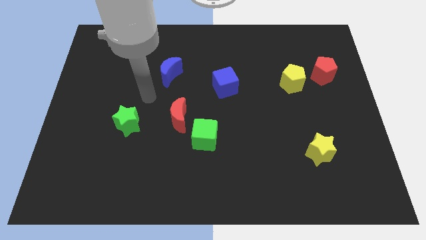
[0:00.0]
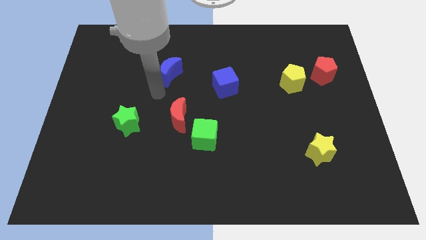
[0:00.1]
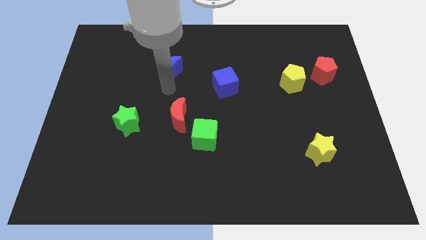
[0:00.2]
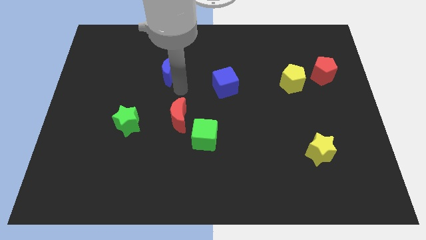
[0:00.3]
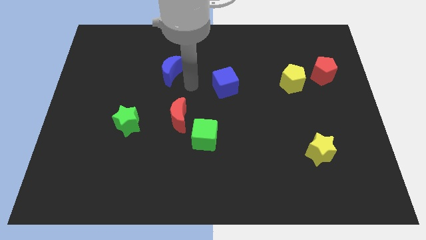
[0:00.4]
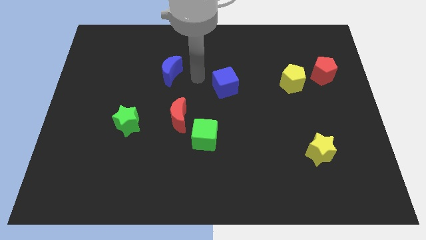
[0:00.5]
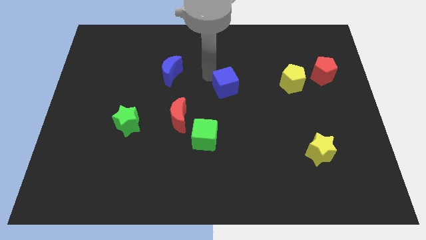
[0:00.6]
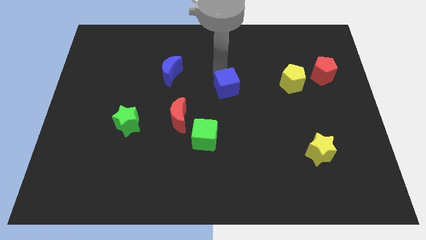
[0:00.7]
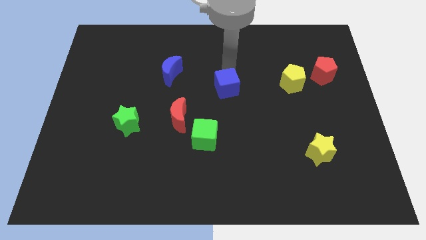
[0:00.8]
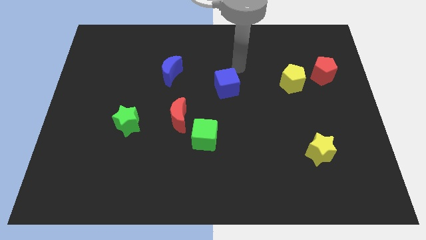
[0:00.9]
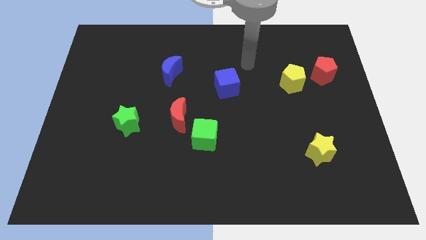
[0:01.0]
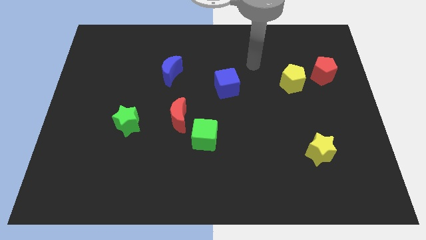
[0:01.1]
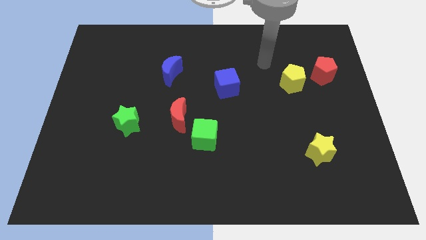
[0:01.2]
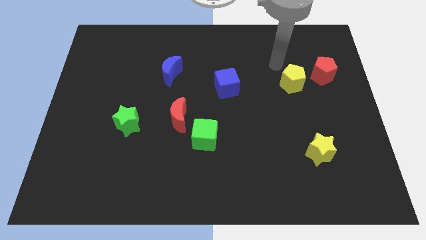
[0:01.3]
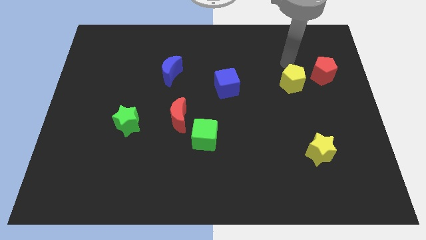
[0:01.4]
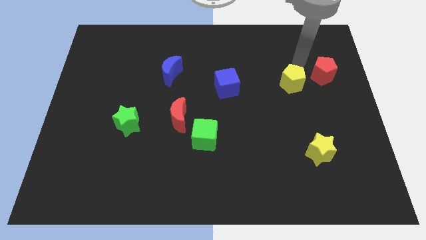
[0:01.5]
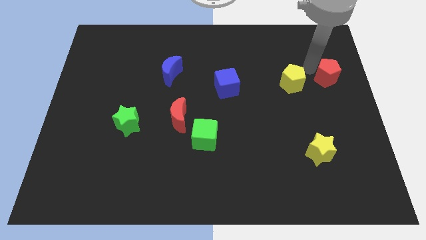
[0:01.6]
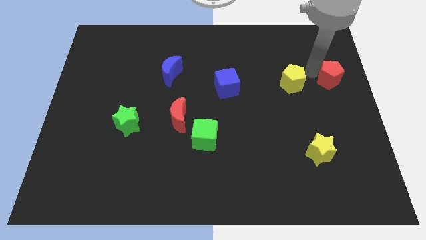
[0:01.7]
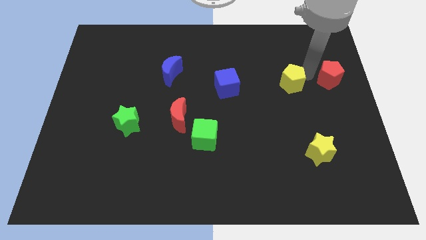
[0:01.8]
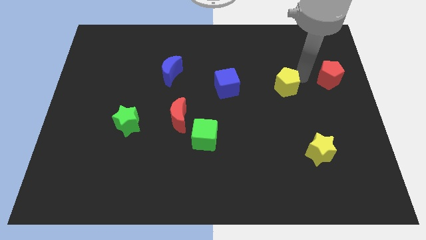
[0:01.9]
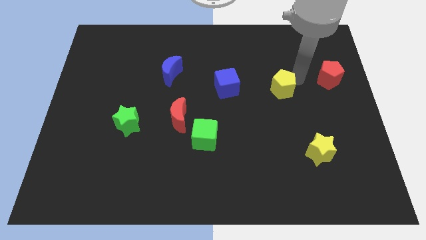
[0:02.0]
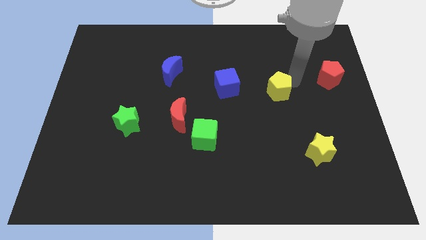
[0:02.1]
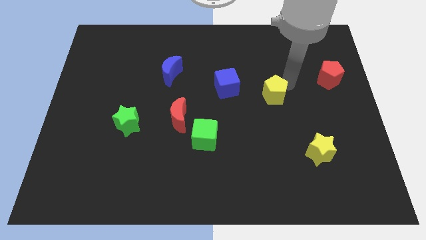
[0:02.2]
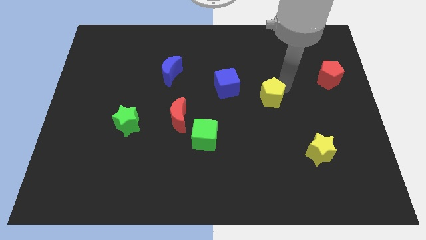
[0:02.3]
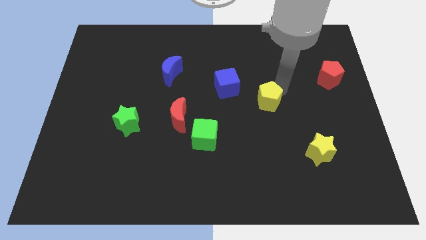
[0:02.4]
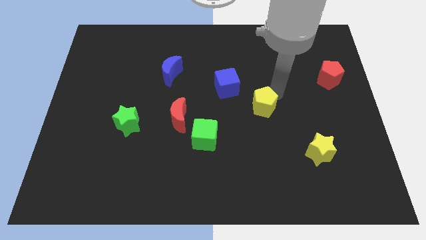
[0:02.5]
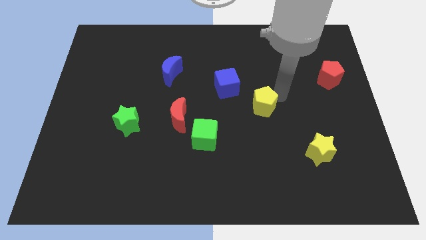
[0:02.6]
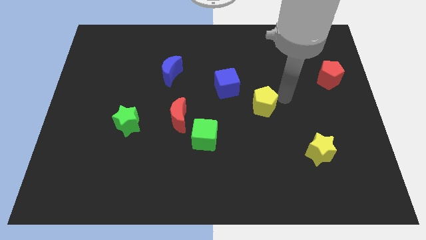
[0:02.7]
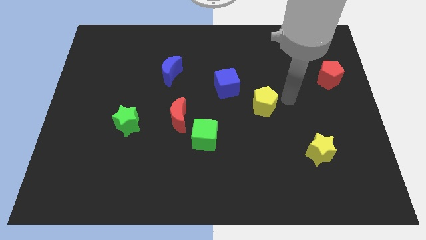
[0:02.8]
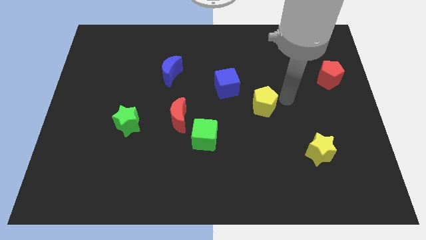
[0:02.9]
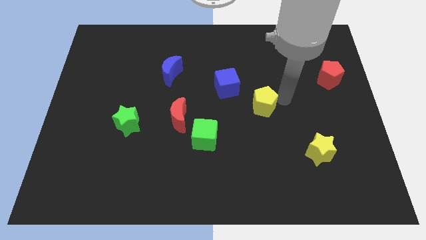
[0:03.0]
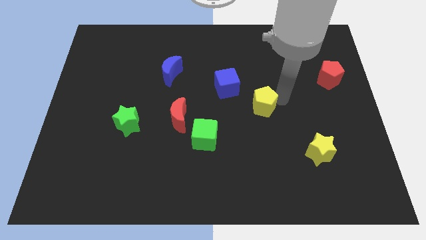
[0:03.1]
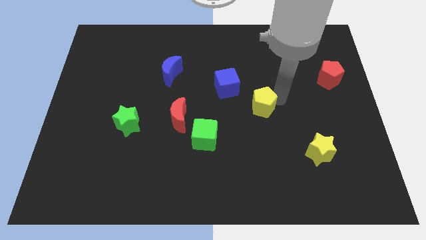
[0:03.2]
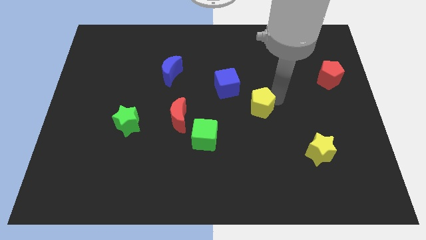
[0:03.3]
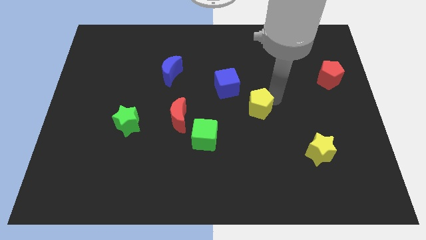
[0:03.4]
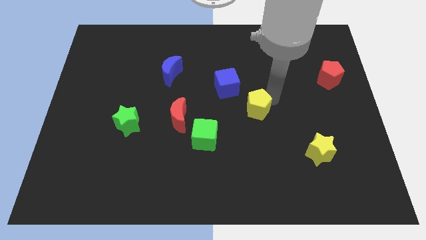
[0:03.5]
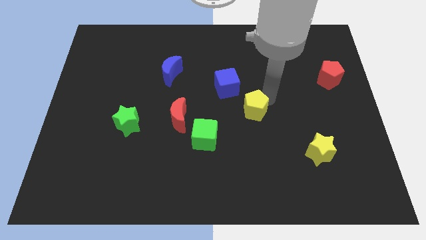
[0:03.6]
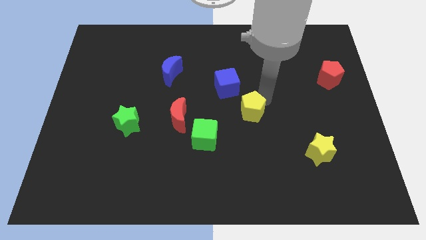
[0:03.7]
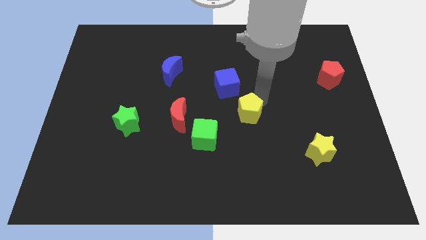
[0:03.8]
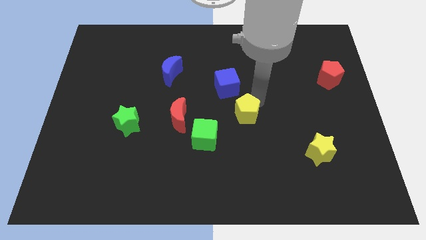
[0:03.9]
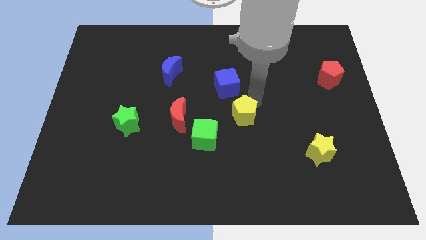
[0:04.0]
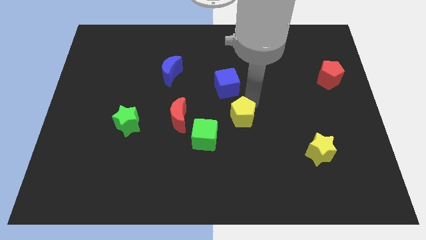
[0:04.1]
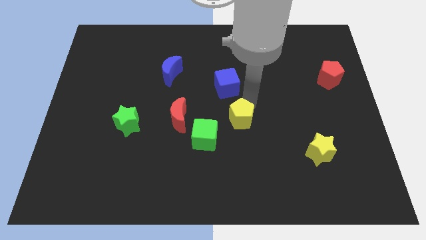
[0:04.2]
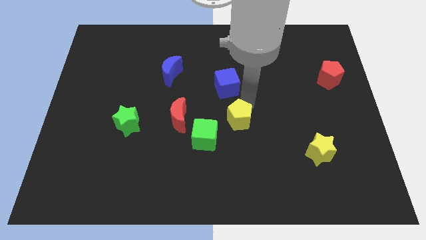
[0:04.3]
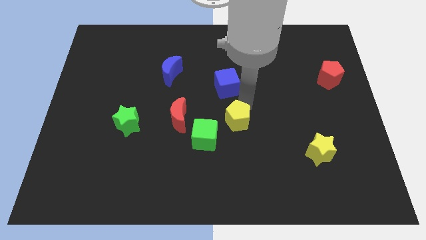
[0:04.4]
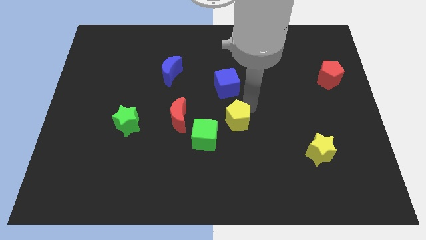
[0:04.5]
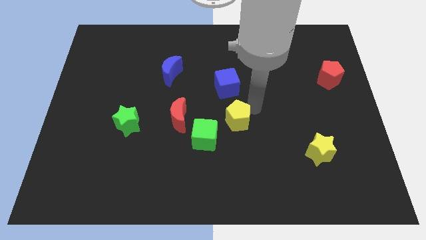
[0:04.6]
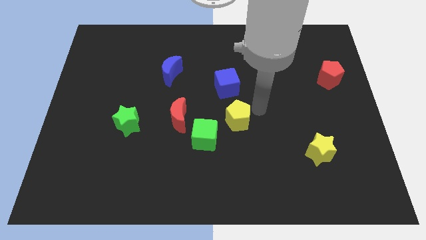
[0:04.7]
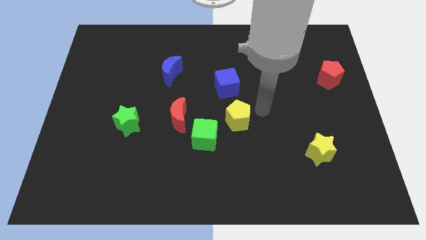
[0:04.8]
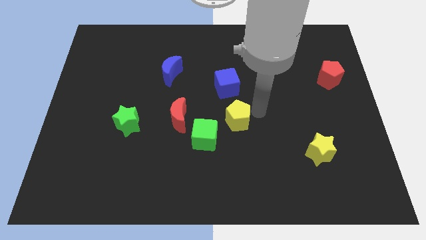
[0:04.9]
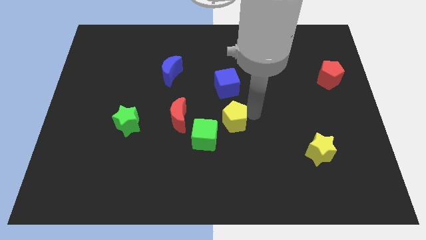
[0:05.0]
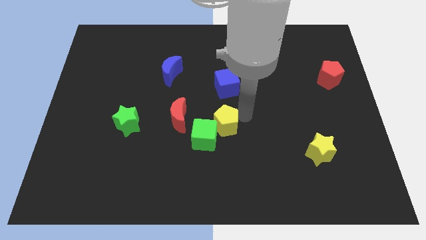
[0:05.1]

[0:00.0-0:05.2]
slide the yellow pentagon next to the green cube

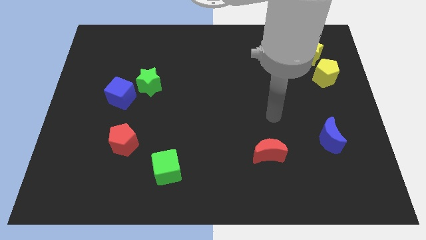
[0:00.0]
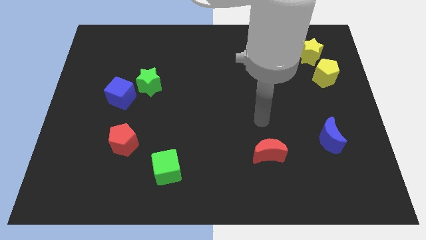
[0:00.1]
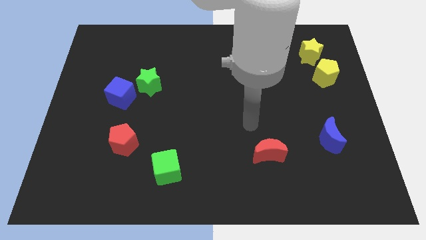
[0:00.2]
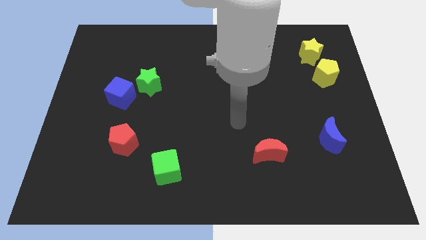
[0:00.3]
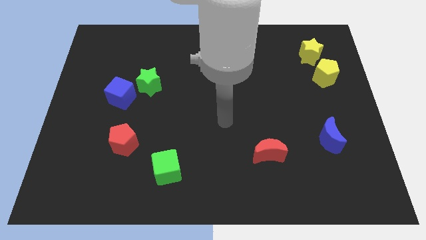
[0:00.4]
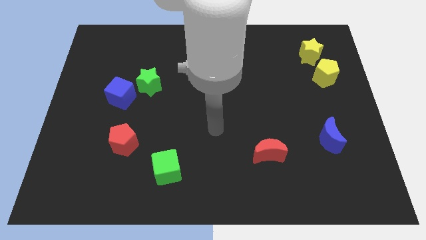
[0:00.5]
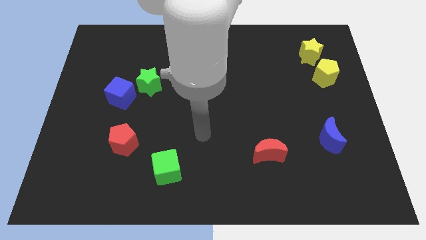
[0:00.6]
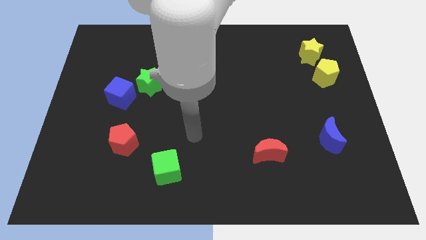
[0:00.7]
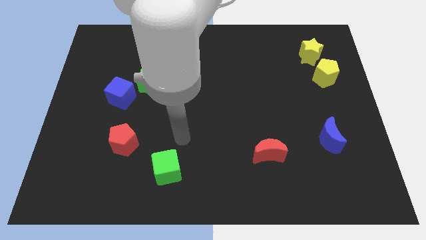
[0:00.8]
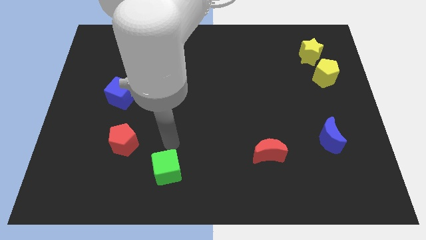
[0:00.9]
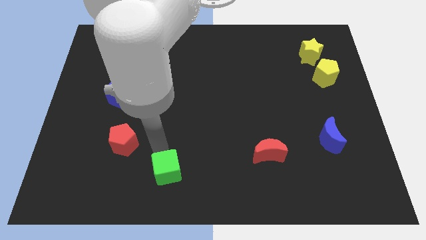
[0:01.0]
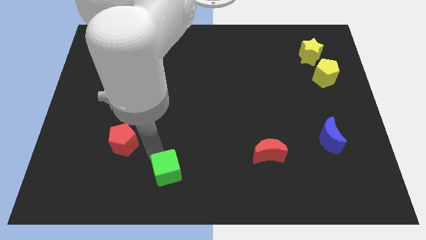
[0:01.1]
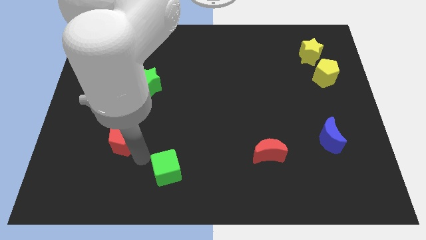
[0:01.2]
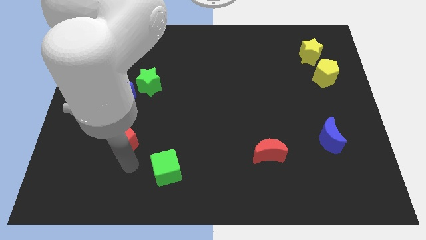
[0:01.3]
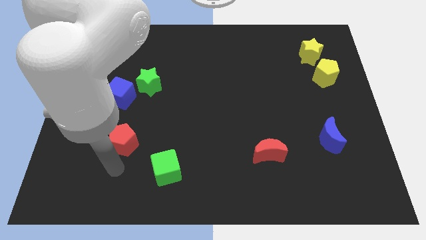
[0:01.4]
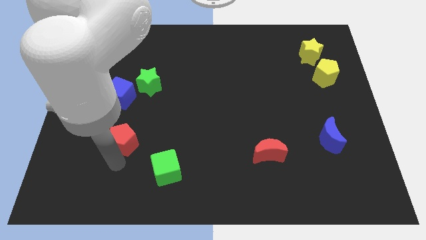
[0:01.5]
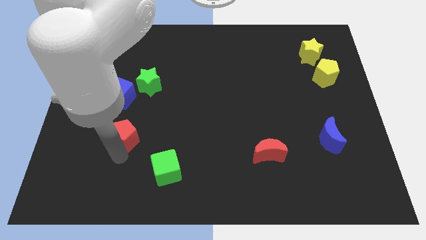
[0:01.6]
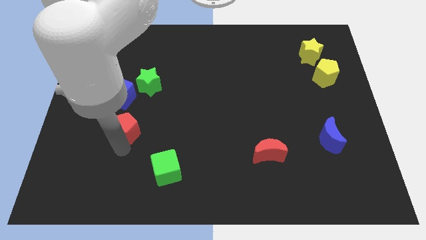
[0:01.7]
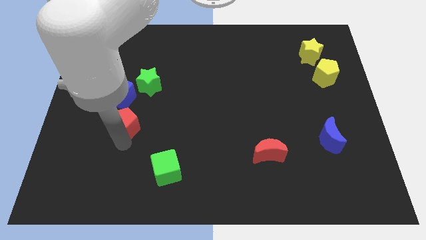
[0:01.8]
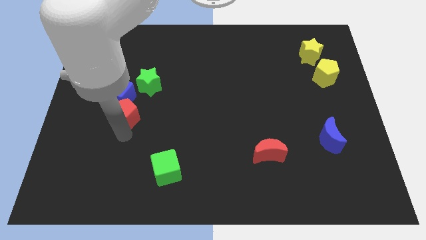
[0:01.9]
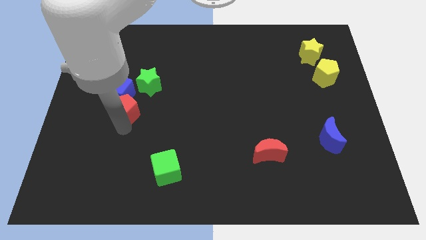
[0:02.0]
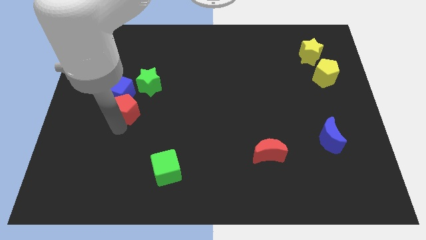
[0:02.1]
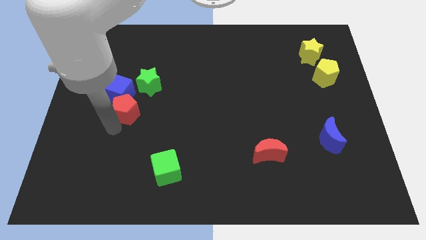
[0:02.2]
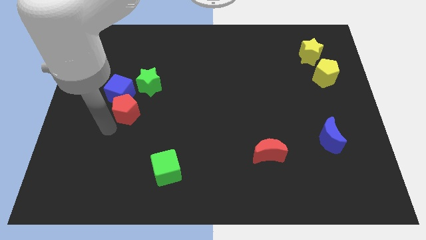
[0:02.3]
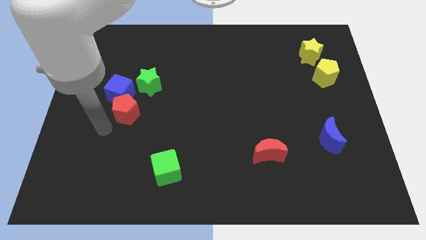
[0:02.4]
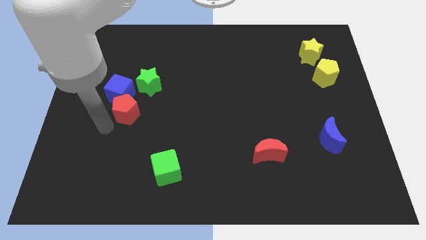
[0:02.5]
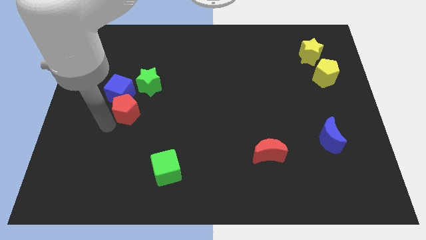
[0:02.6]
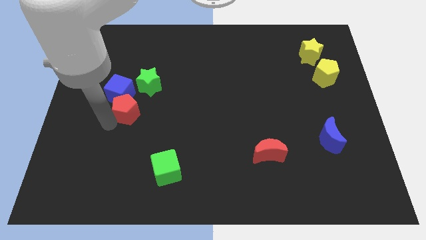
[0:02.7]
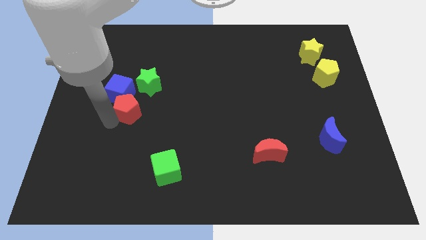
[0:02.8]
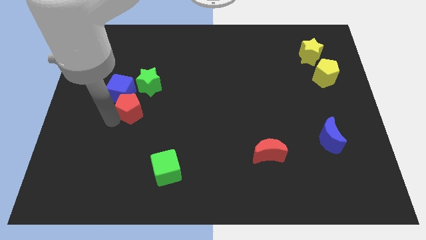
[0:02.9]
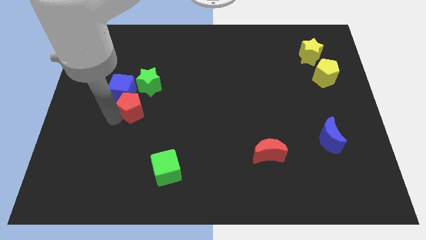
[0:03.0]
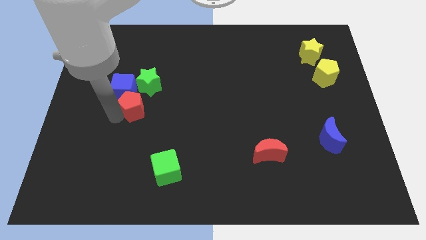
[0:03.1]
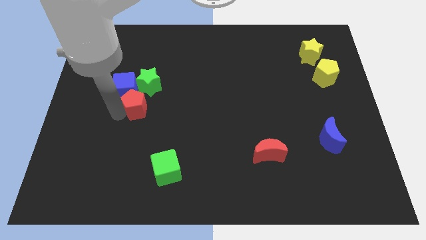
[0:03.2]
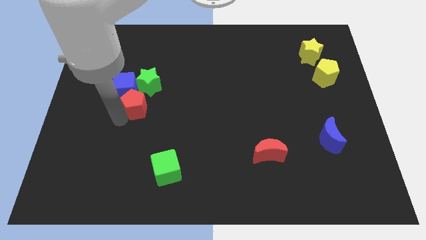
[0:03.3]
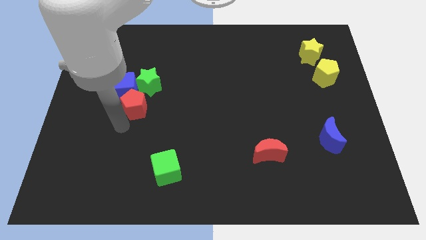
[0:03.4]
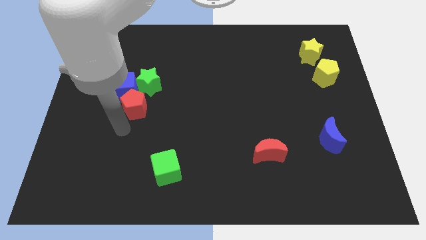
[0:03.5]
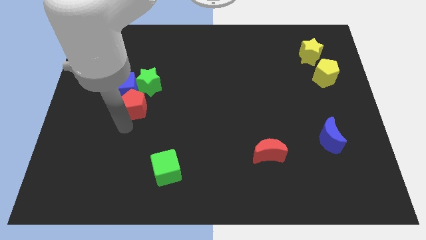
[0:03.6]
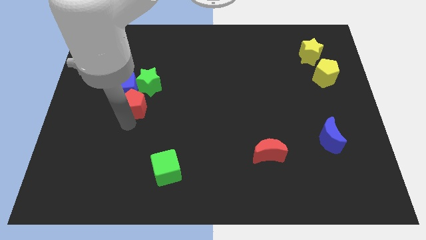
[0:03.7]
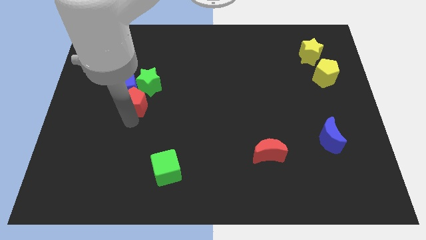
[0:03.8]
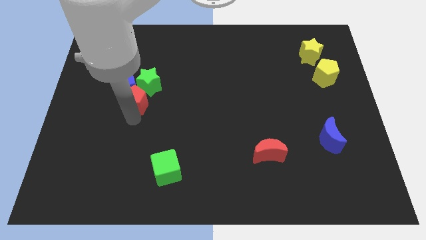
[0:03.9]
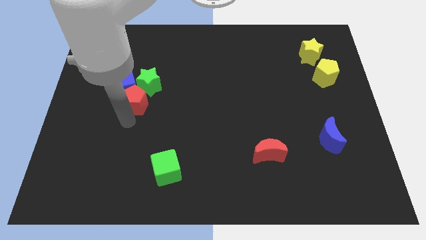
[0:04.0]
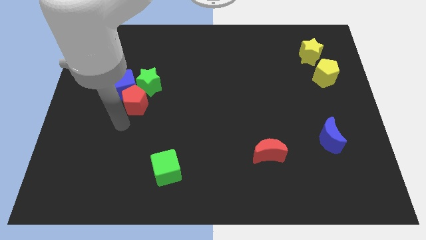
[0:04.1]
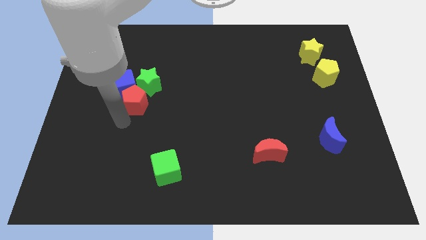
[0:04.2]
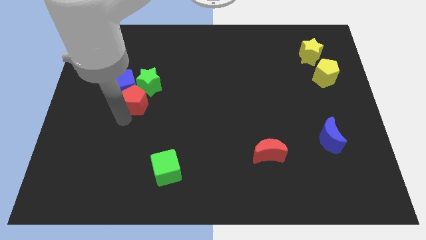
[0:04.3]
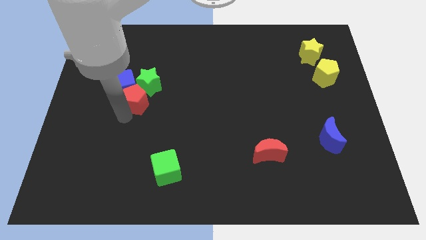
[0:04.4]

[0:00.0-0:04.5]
slide the red pentagon next to the green star
